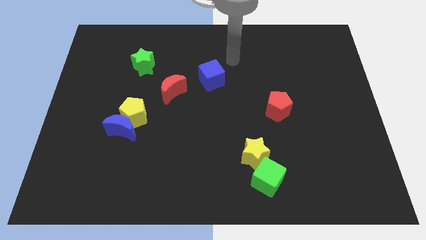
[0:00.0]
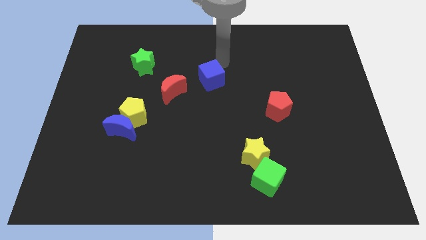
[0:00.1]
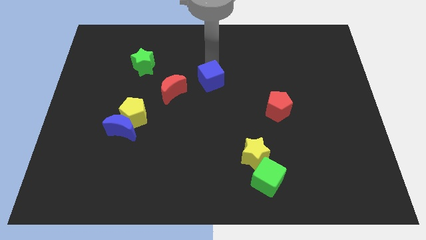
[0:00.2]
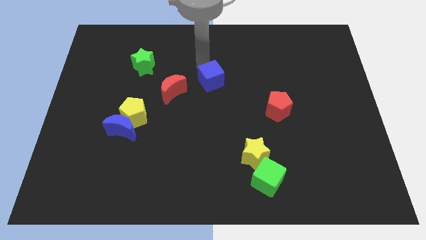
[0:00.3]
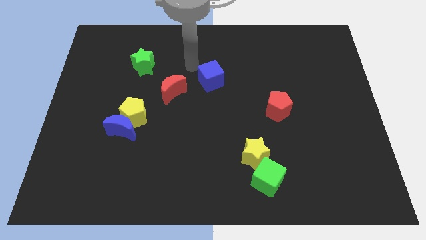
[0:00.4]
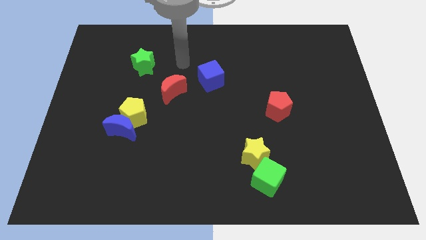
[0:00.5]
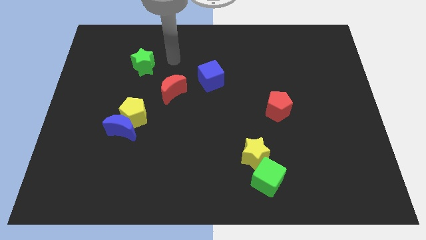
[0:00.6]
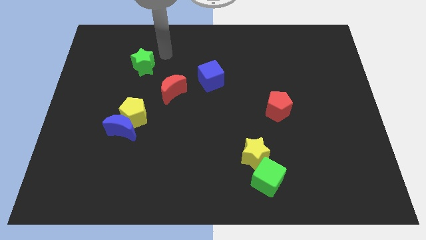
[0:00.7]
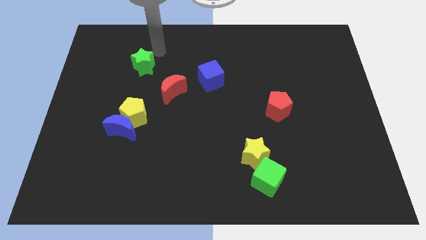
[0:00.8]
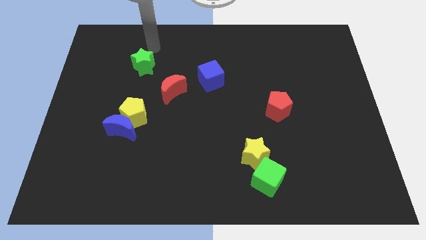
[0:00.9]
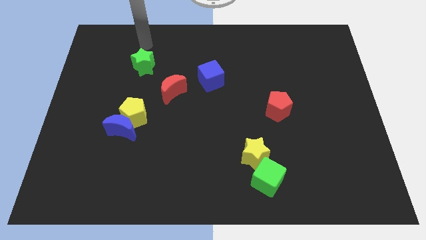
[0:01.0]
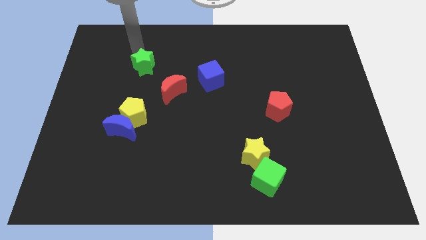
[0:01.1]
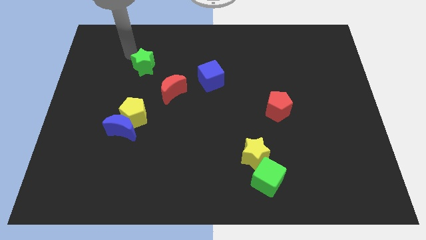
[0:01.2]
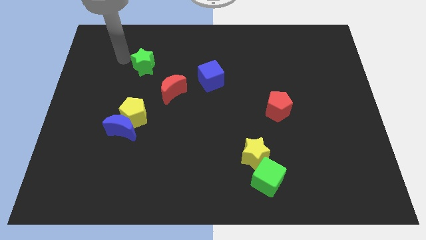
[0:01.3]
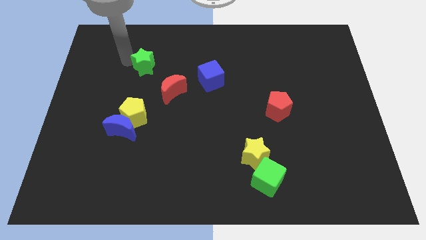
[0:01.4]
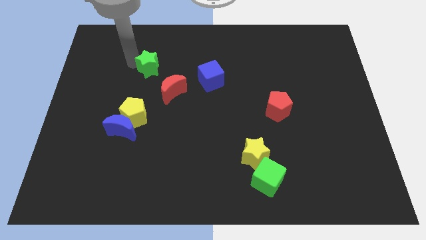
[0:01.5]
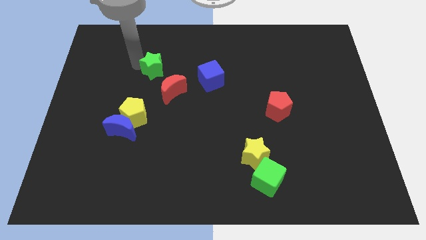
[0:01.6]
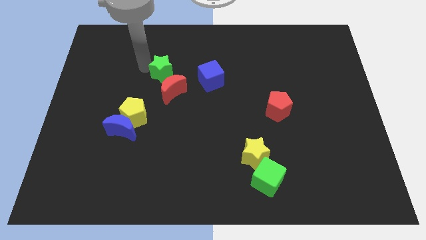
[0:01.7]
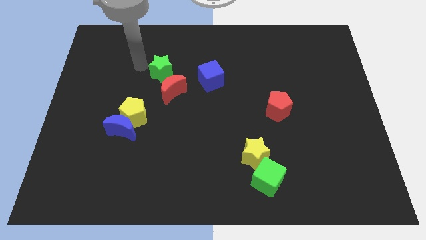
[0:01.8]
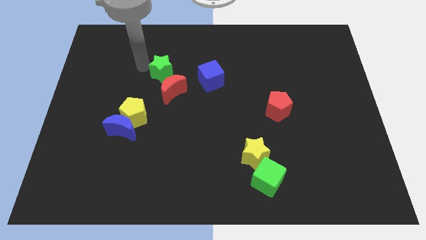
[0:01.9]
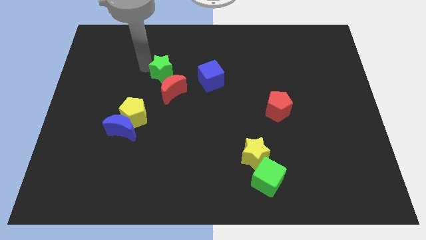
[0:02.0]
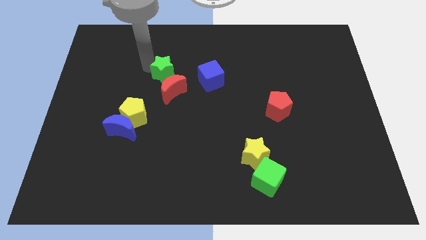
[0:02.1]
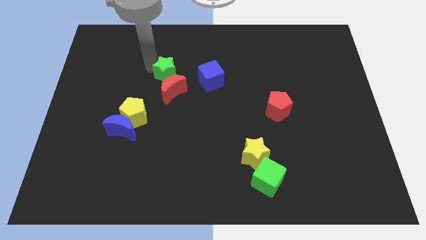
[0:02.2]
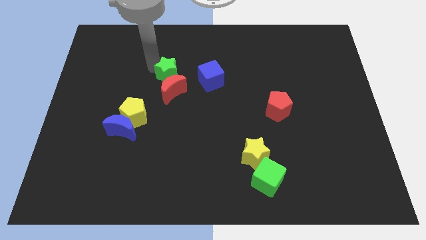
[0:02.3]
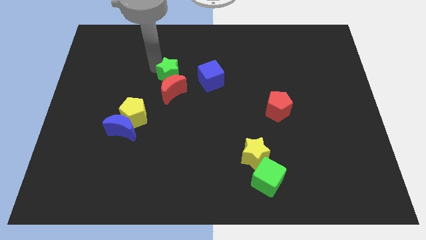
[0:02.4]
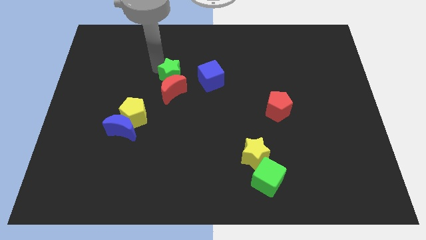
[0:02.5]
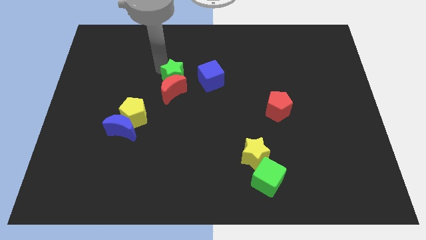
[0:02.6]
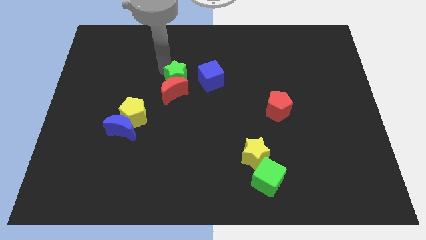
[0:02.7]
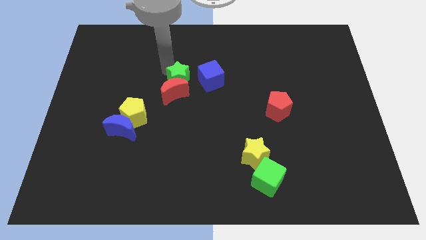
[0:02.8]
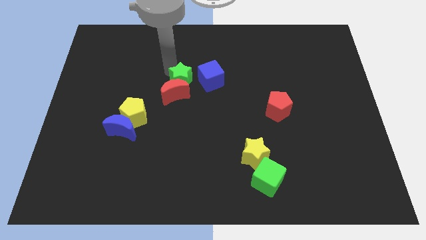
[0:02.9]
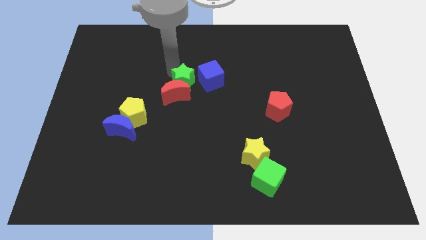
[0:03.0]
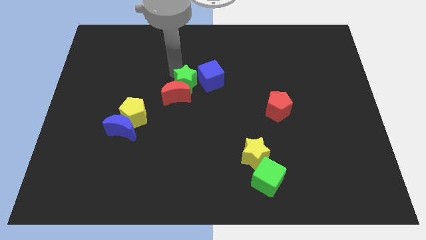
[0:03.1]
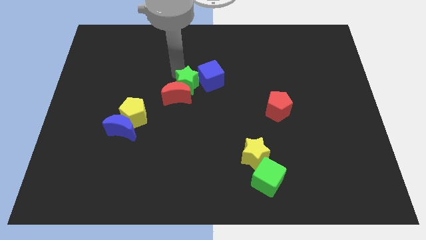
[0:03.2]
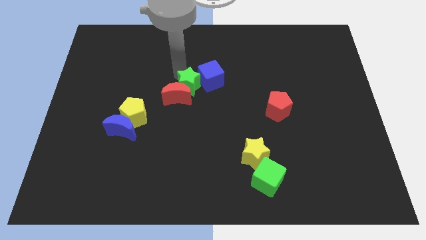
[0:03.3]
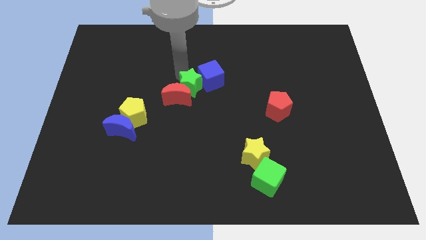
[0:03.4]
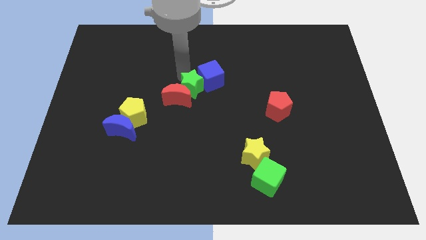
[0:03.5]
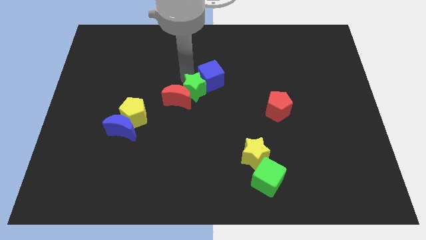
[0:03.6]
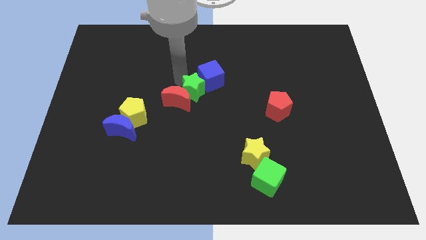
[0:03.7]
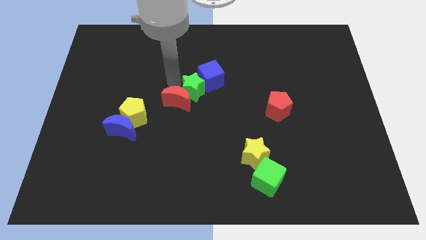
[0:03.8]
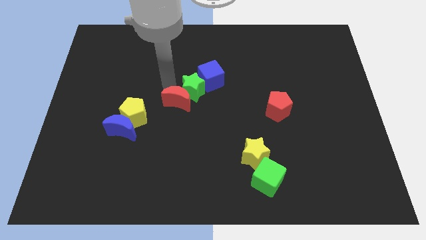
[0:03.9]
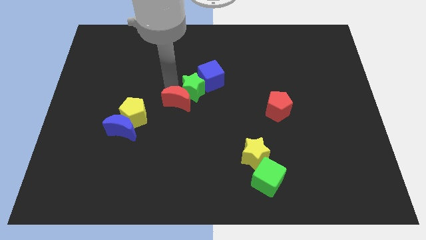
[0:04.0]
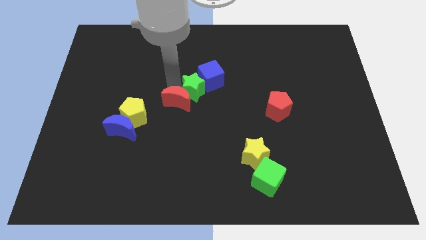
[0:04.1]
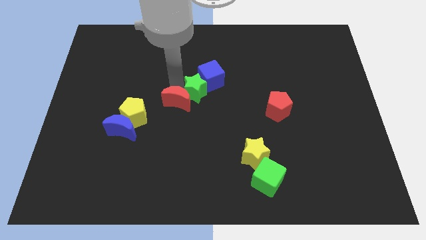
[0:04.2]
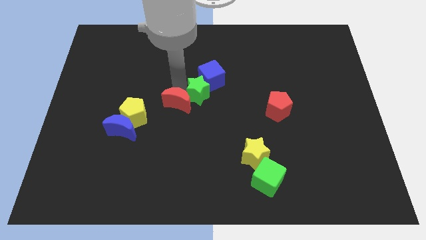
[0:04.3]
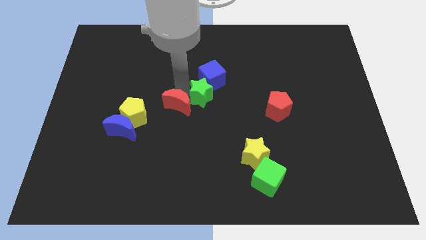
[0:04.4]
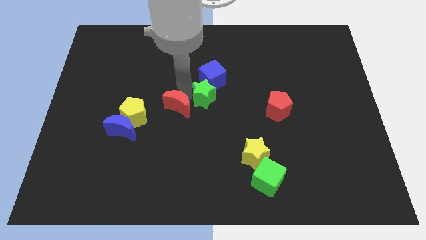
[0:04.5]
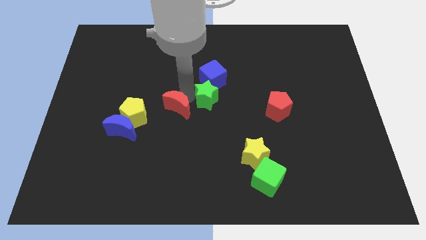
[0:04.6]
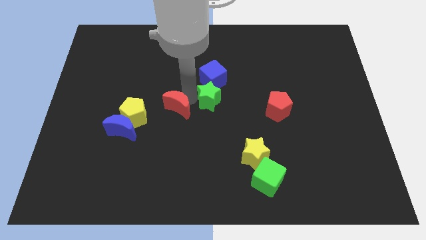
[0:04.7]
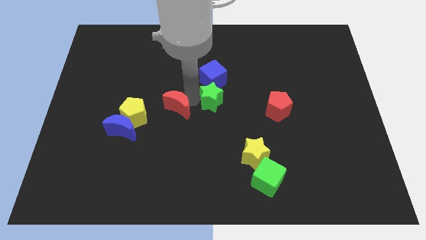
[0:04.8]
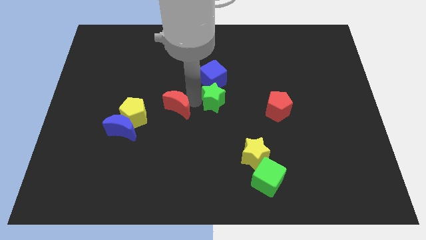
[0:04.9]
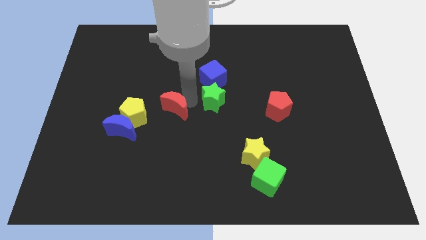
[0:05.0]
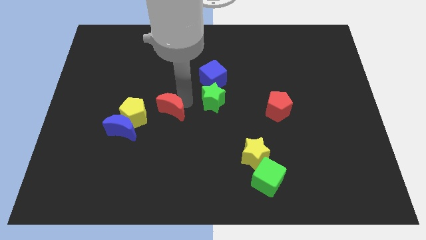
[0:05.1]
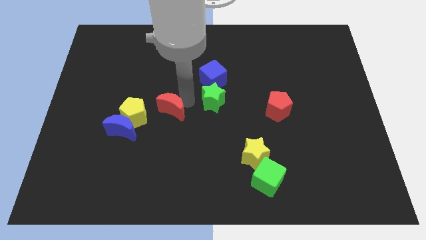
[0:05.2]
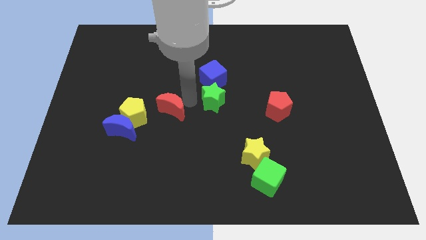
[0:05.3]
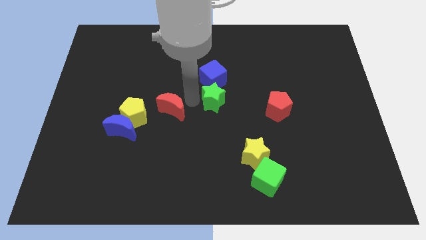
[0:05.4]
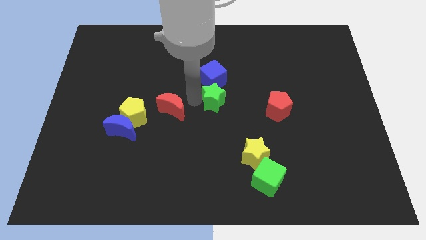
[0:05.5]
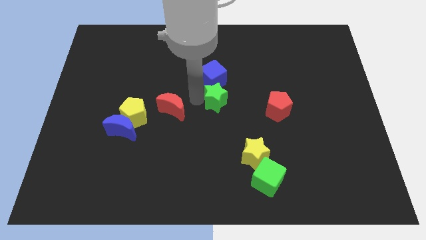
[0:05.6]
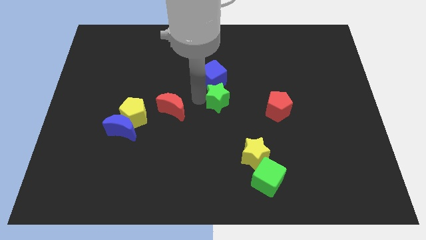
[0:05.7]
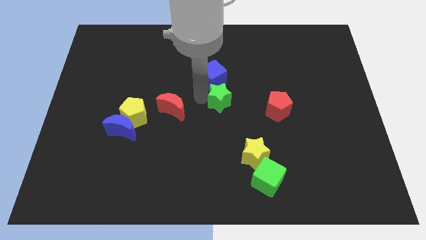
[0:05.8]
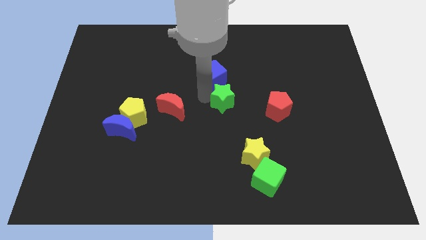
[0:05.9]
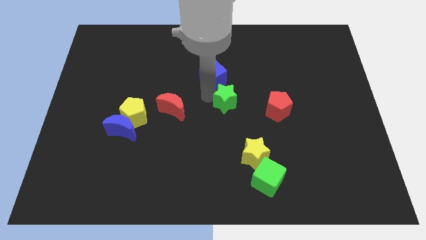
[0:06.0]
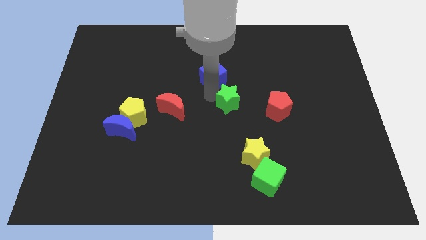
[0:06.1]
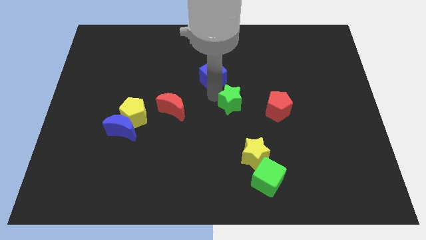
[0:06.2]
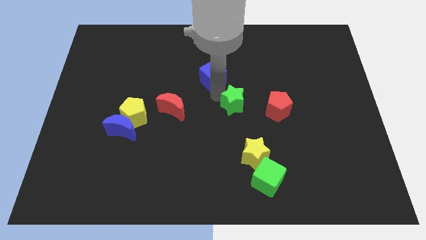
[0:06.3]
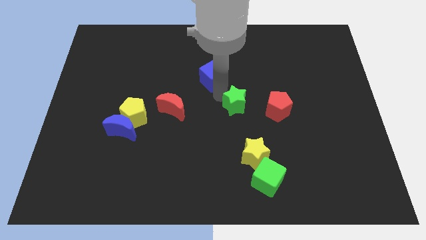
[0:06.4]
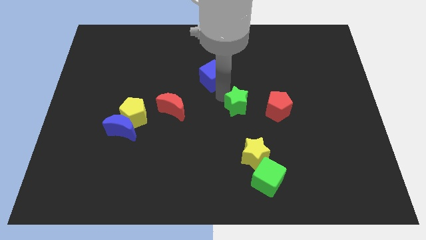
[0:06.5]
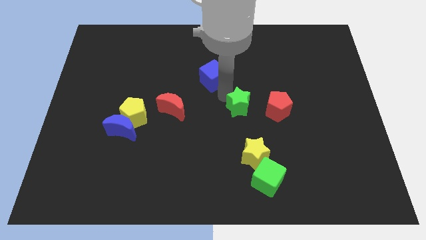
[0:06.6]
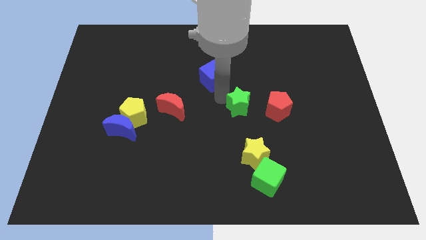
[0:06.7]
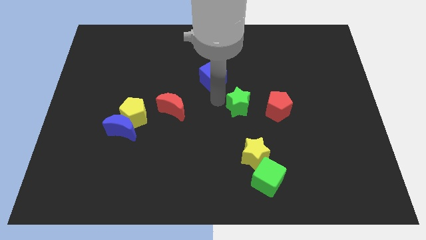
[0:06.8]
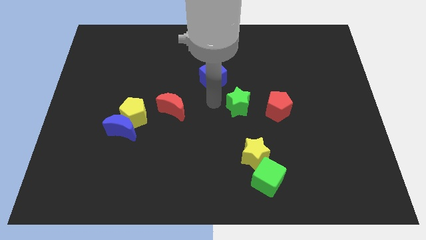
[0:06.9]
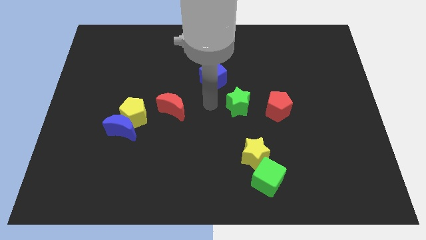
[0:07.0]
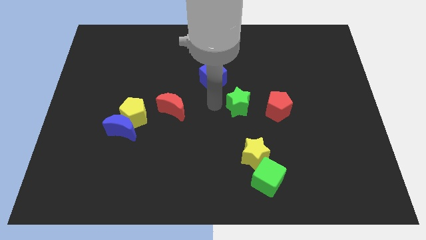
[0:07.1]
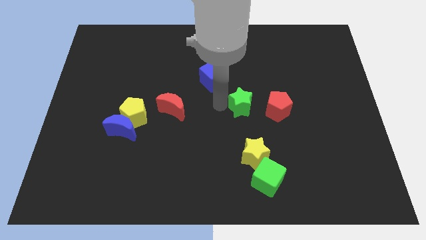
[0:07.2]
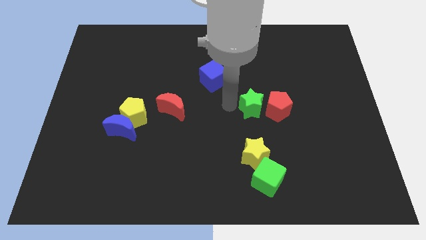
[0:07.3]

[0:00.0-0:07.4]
move the green star towards the red pentagon
